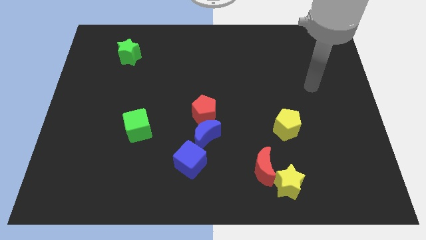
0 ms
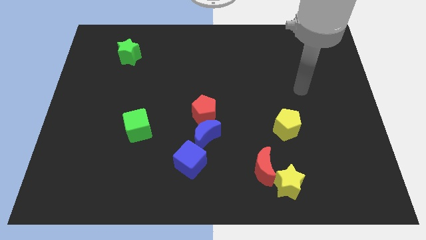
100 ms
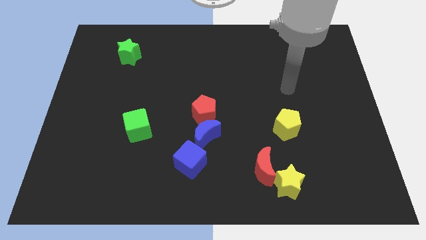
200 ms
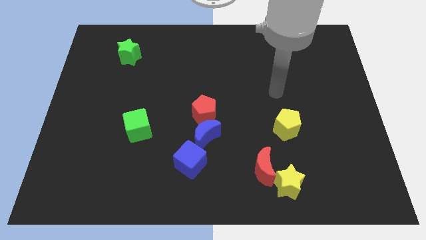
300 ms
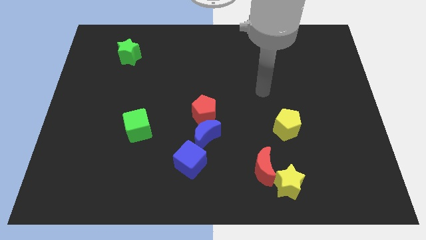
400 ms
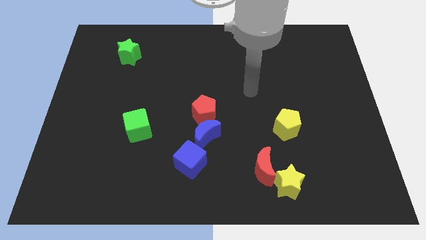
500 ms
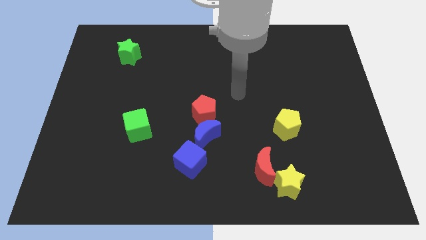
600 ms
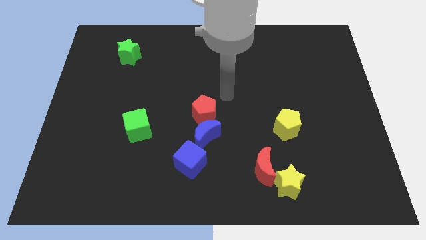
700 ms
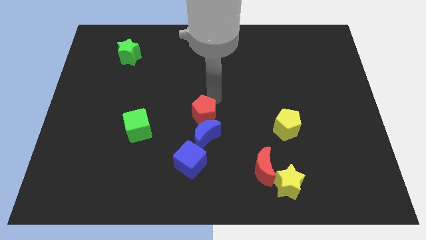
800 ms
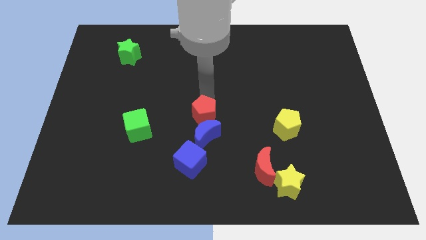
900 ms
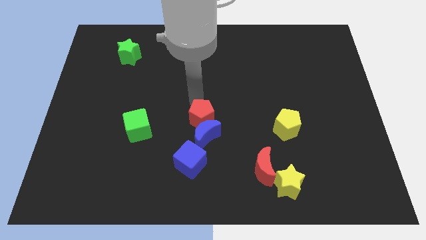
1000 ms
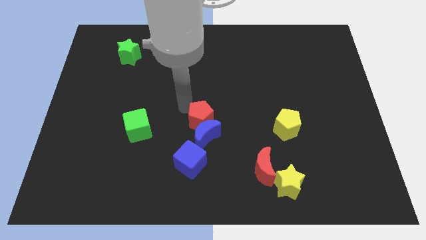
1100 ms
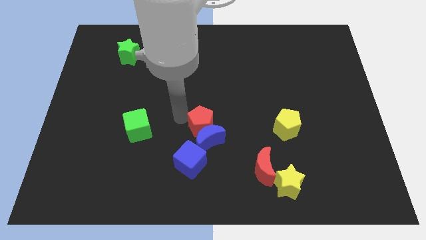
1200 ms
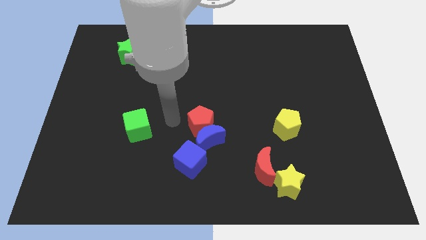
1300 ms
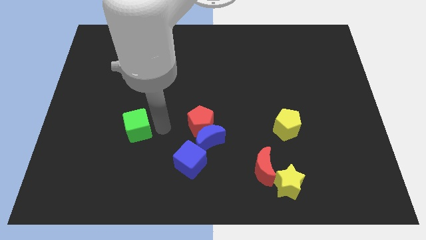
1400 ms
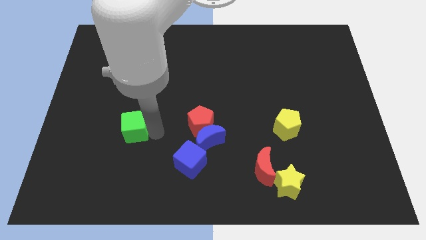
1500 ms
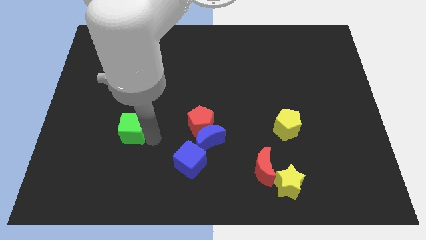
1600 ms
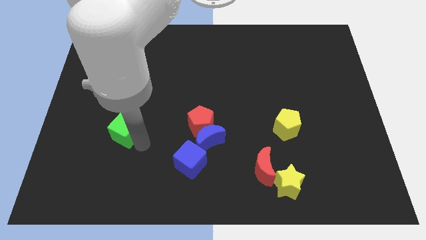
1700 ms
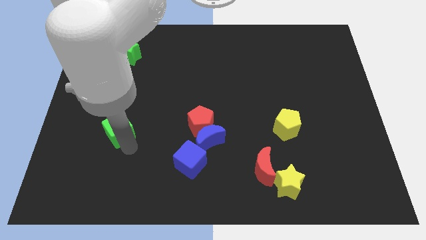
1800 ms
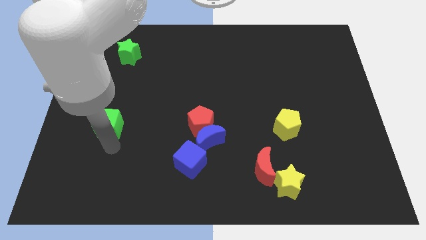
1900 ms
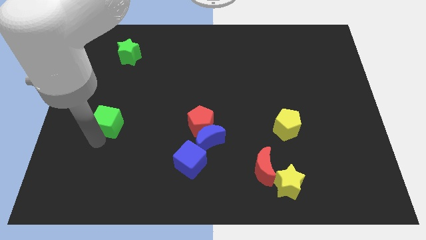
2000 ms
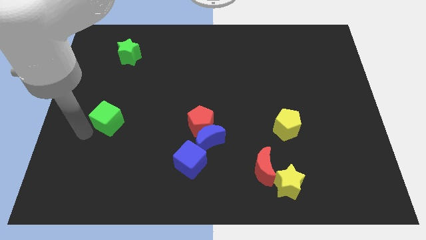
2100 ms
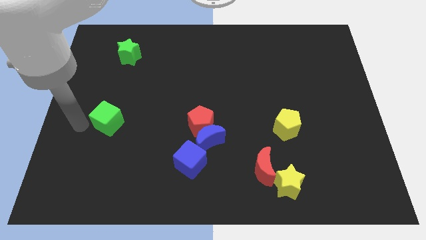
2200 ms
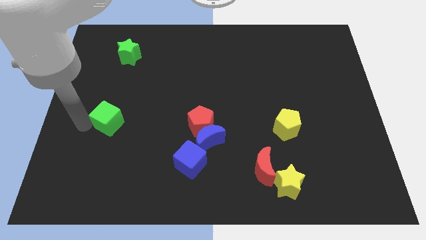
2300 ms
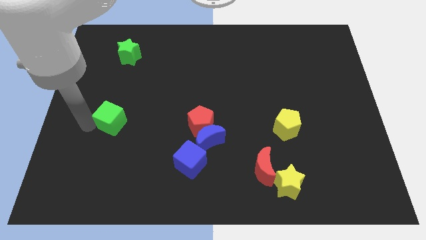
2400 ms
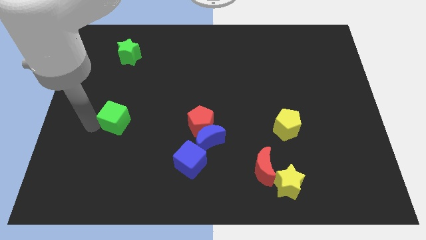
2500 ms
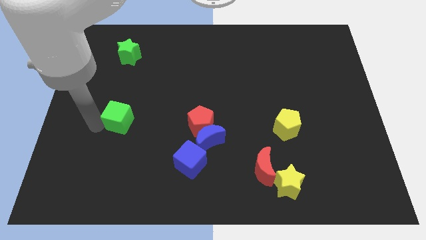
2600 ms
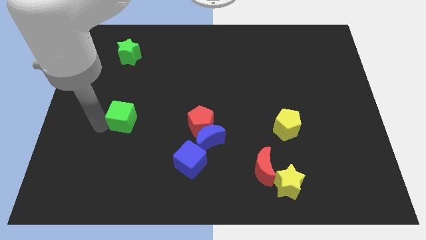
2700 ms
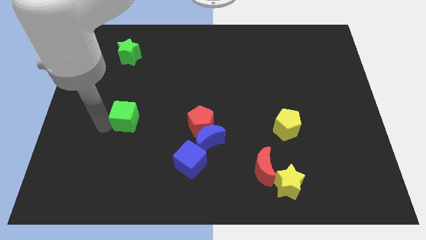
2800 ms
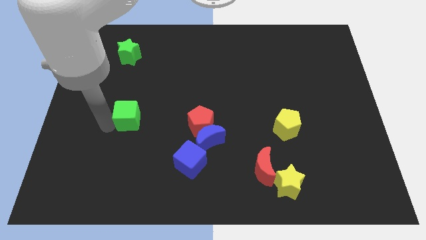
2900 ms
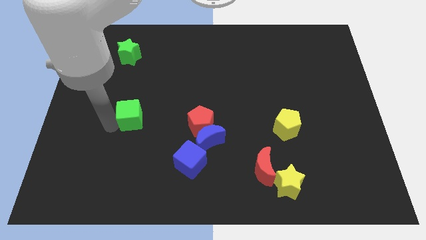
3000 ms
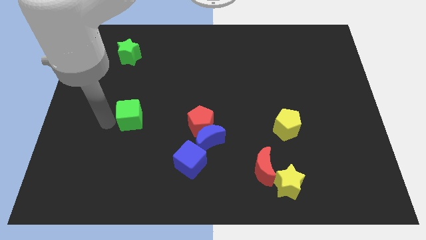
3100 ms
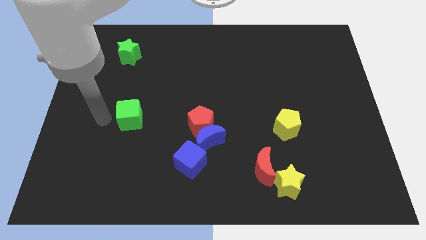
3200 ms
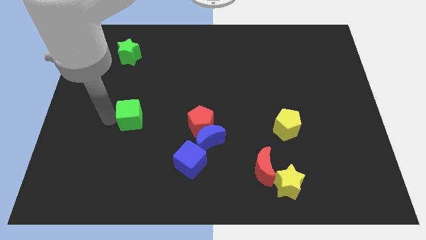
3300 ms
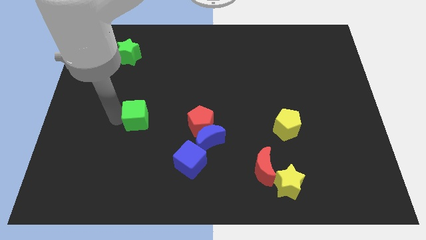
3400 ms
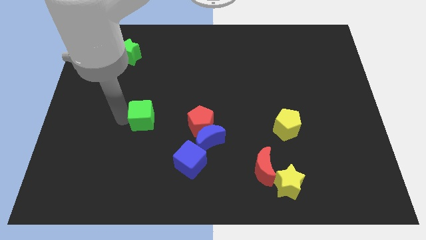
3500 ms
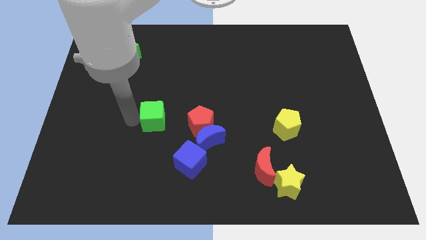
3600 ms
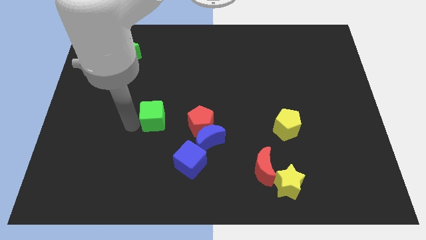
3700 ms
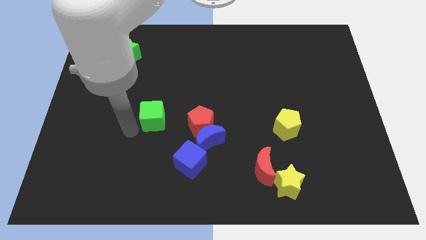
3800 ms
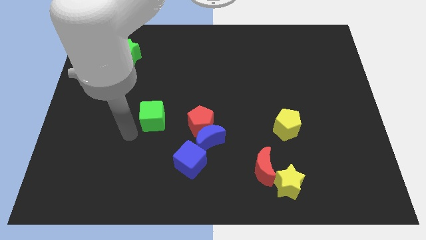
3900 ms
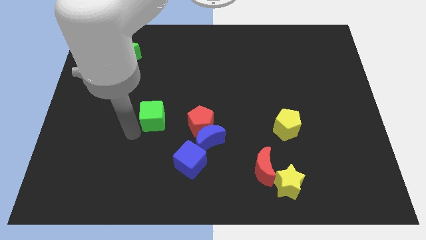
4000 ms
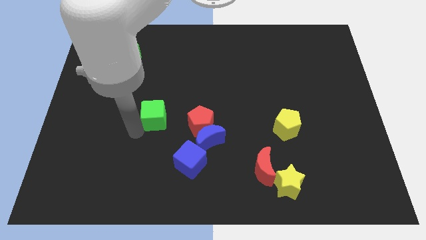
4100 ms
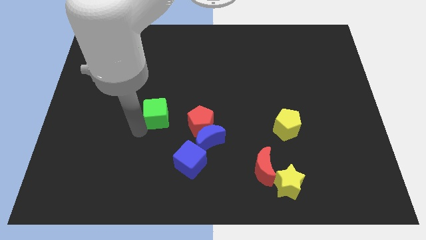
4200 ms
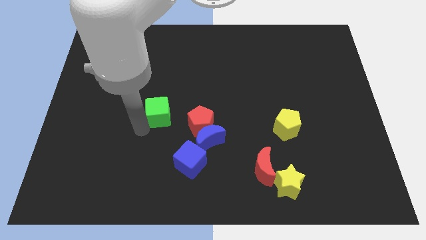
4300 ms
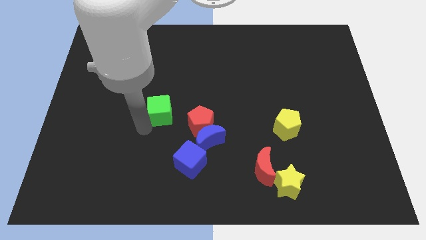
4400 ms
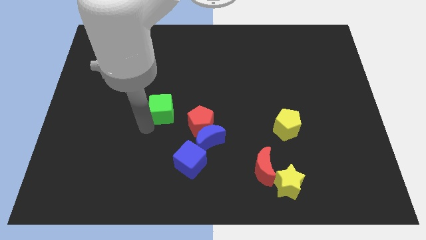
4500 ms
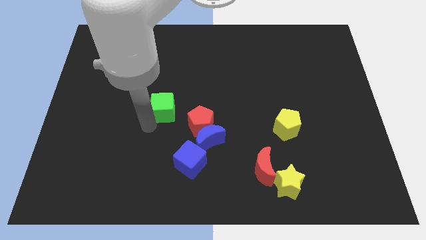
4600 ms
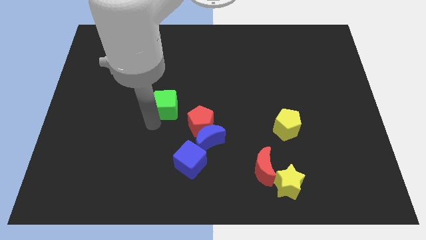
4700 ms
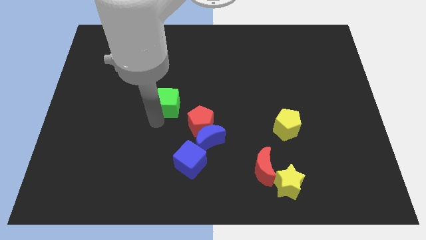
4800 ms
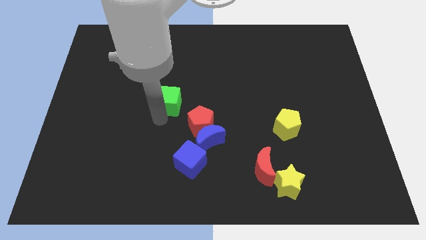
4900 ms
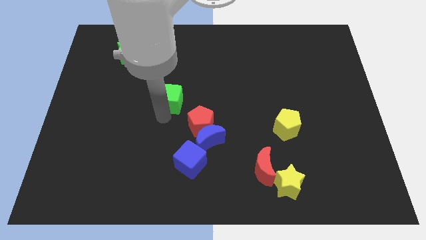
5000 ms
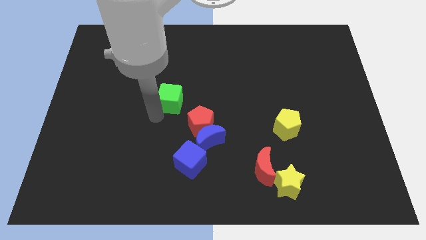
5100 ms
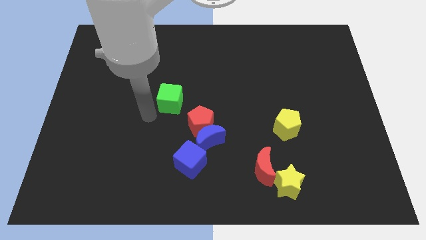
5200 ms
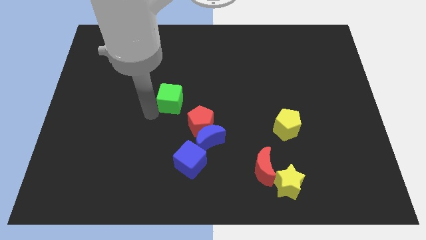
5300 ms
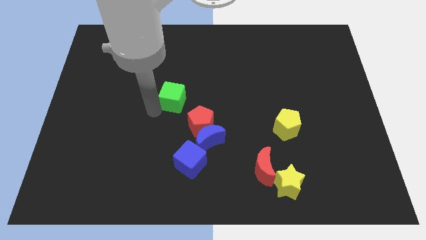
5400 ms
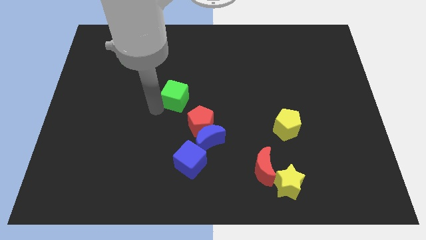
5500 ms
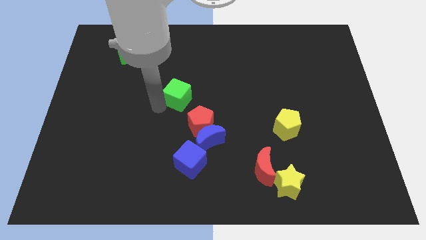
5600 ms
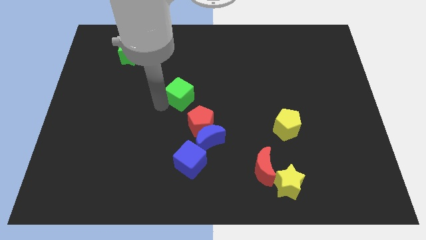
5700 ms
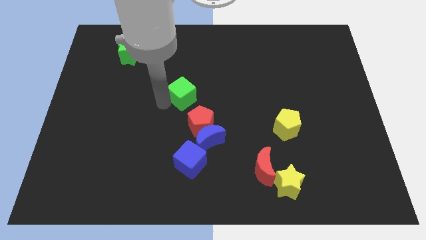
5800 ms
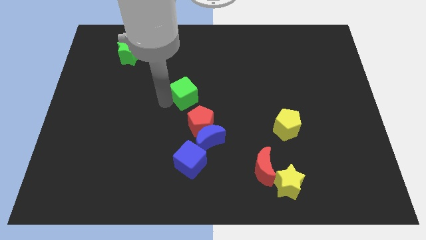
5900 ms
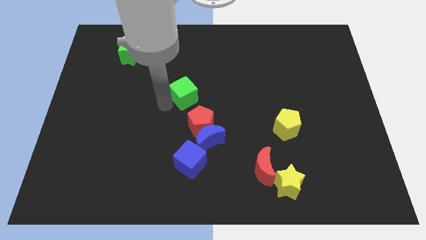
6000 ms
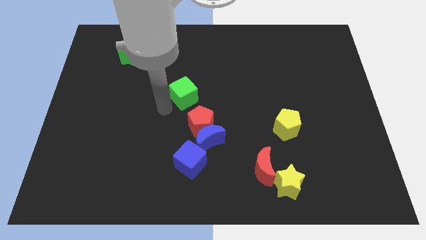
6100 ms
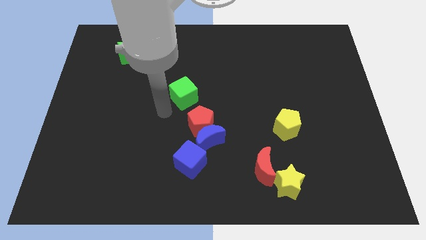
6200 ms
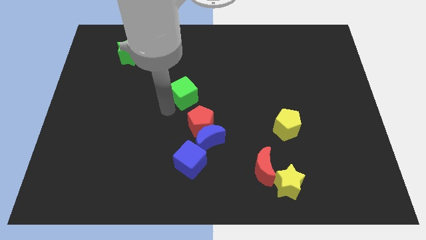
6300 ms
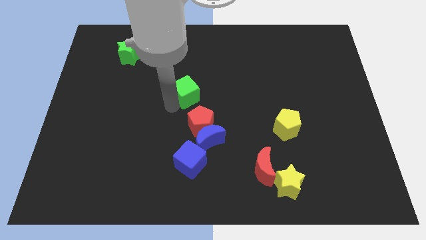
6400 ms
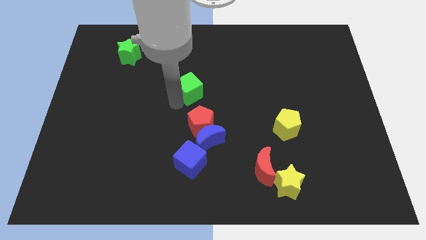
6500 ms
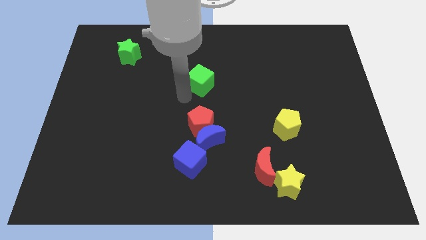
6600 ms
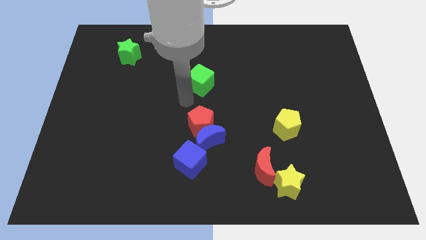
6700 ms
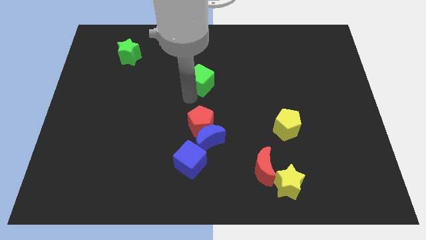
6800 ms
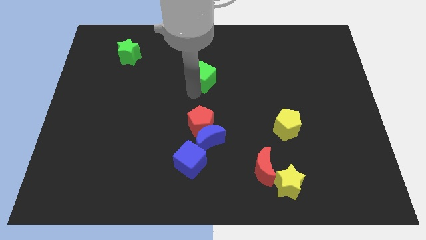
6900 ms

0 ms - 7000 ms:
slide the green cube upwards and right

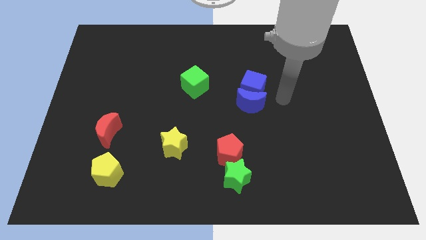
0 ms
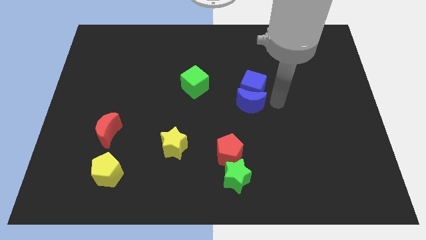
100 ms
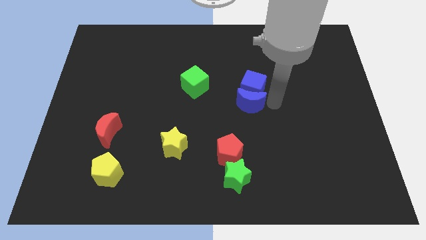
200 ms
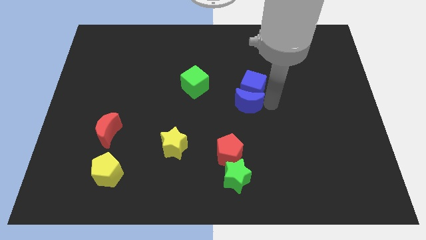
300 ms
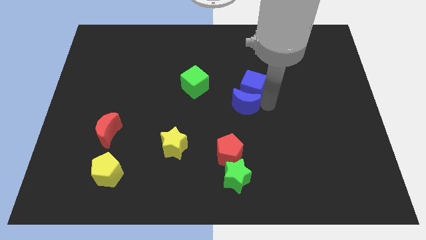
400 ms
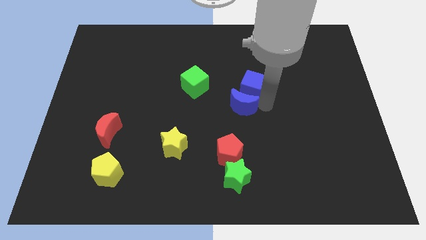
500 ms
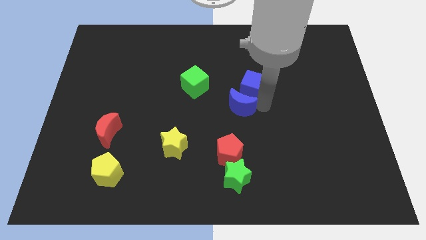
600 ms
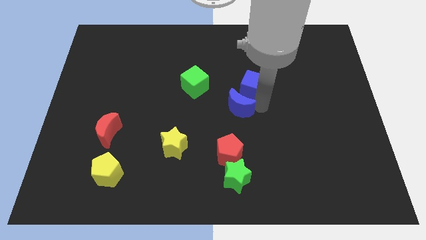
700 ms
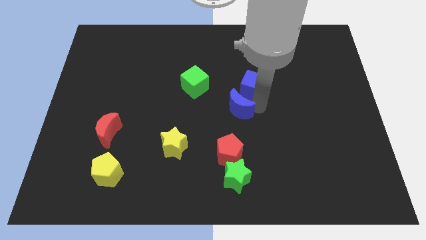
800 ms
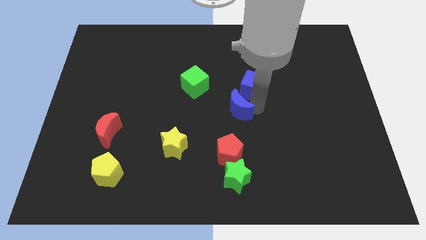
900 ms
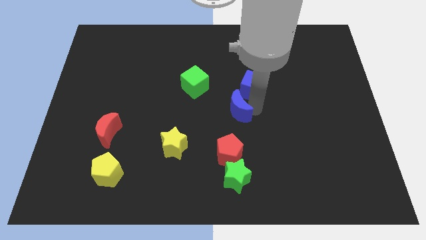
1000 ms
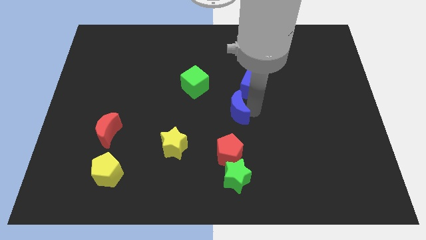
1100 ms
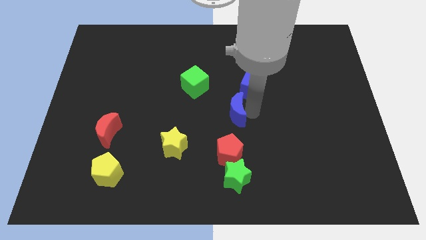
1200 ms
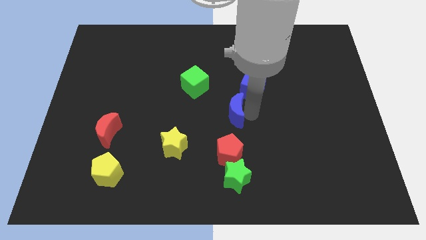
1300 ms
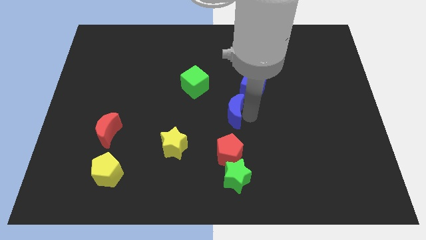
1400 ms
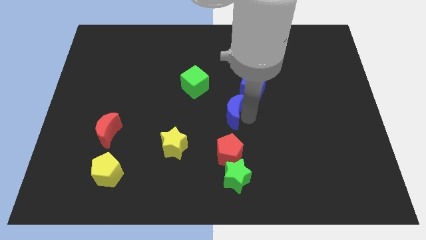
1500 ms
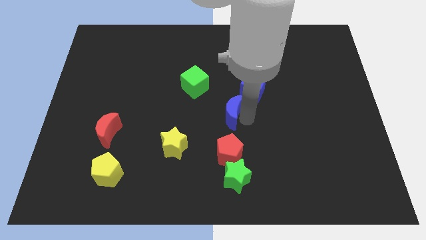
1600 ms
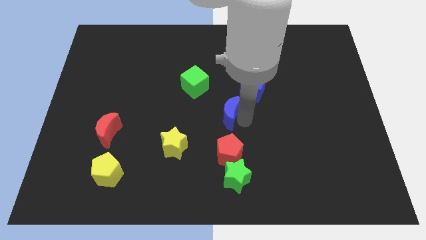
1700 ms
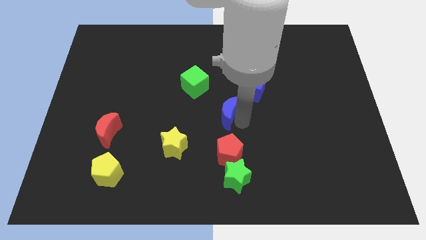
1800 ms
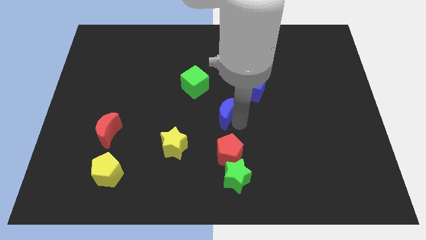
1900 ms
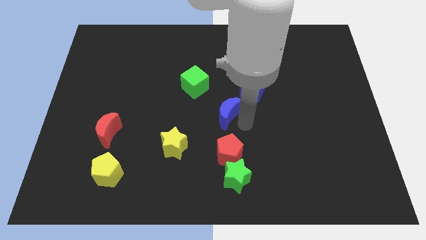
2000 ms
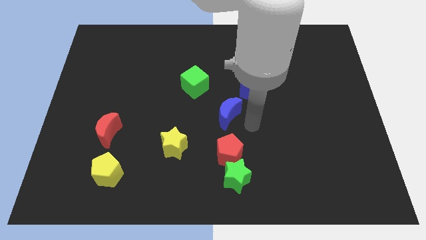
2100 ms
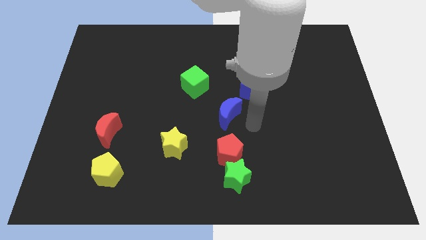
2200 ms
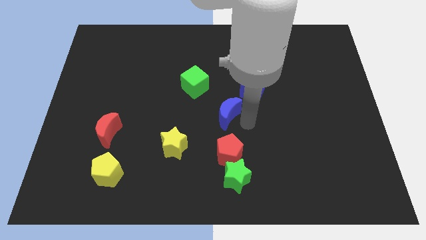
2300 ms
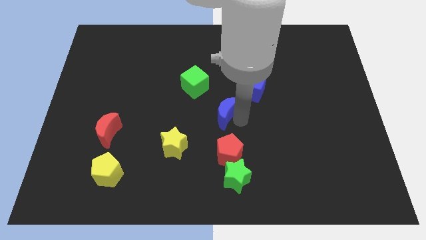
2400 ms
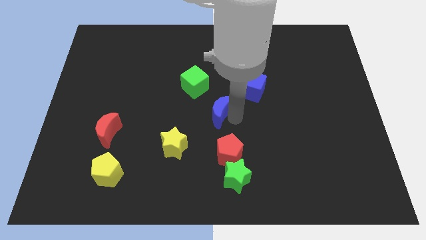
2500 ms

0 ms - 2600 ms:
slide the blue moon a little to the left
